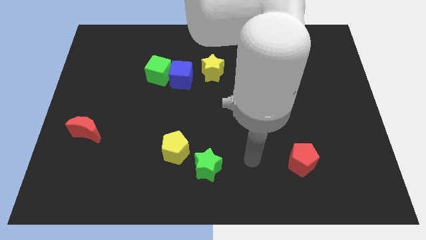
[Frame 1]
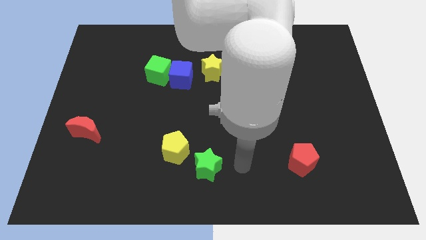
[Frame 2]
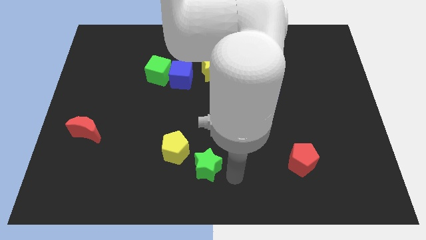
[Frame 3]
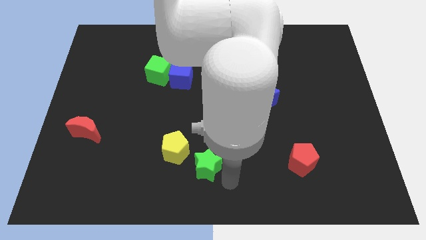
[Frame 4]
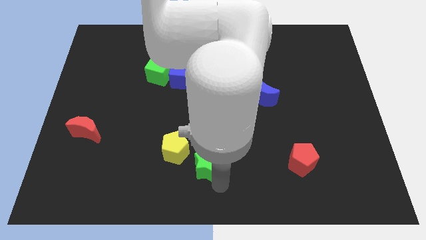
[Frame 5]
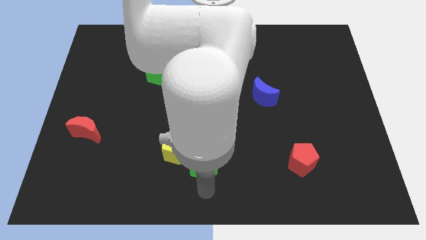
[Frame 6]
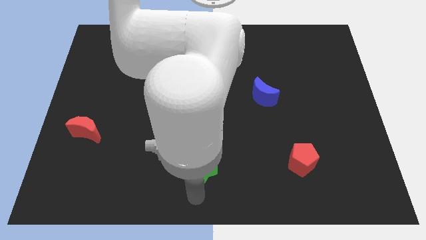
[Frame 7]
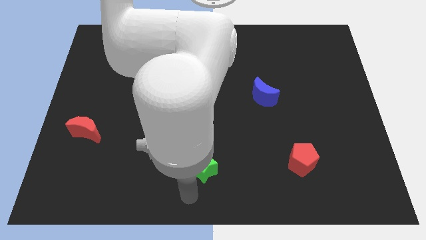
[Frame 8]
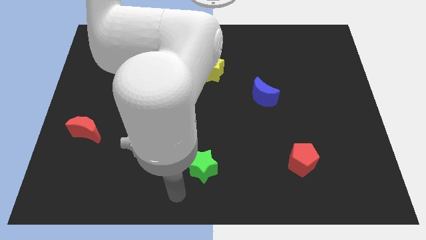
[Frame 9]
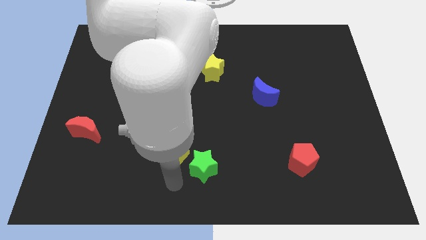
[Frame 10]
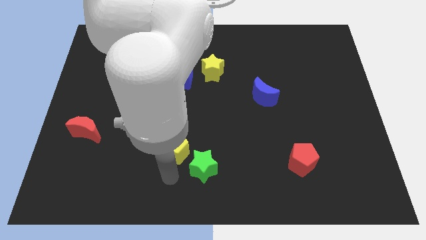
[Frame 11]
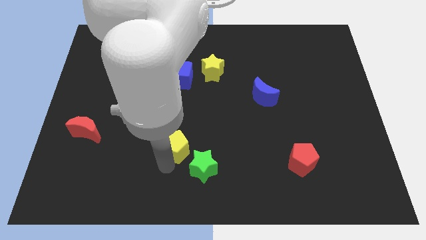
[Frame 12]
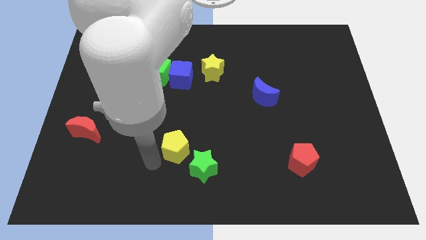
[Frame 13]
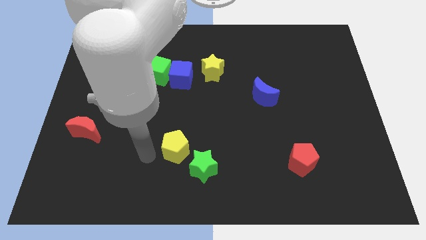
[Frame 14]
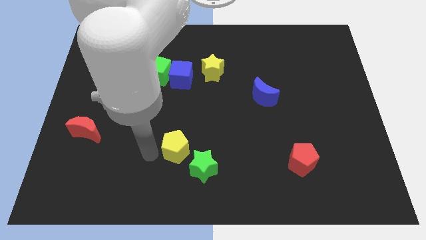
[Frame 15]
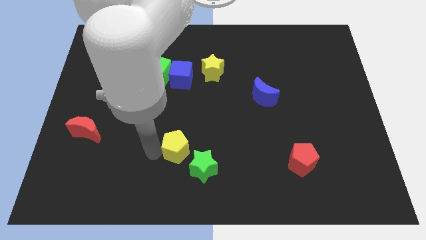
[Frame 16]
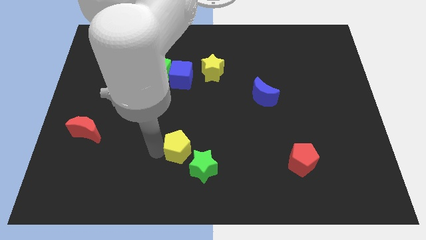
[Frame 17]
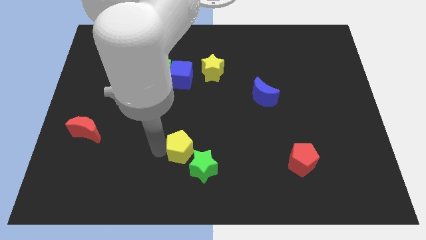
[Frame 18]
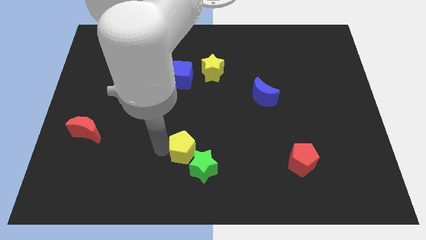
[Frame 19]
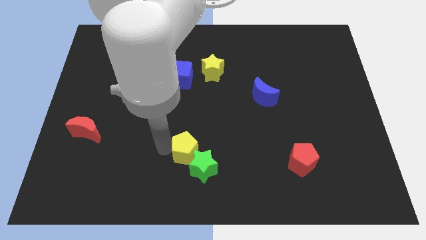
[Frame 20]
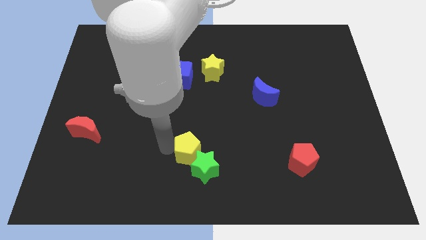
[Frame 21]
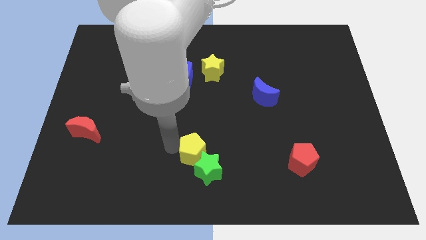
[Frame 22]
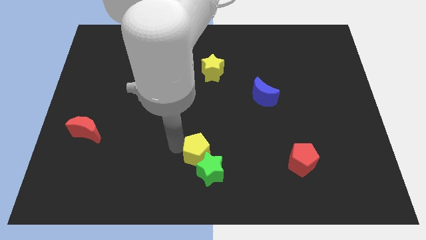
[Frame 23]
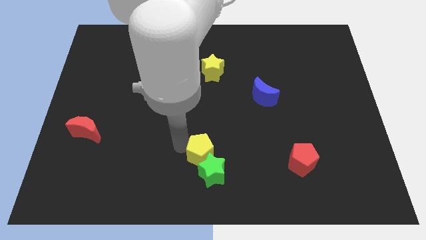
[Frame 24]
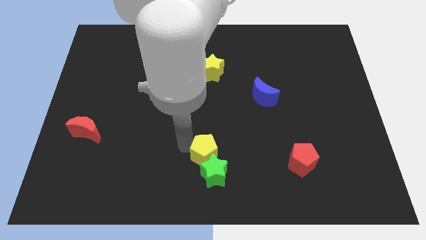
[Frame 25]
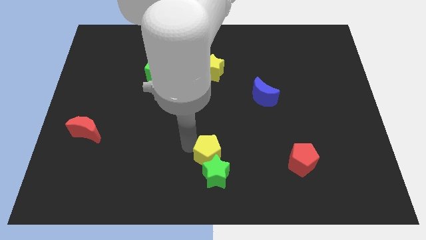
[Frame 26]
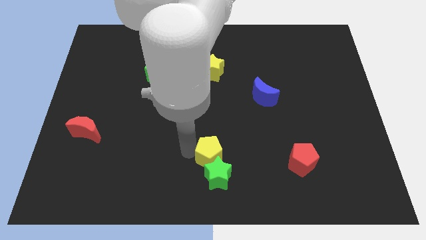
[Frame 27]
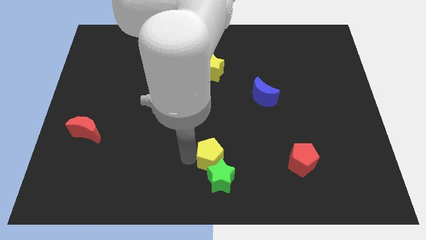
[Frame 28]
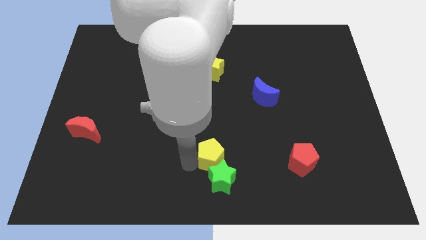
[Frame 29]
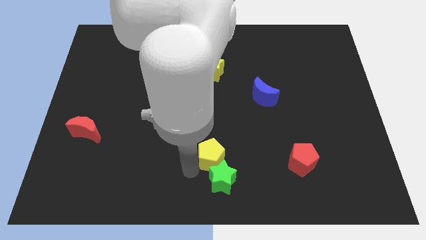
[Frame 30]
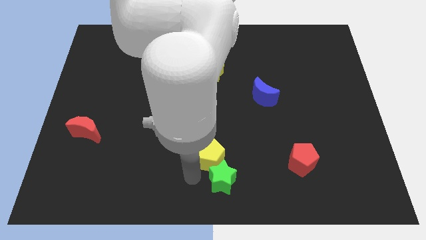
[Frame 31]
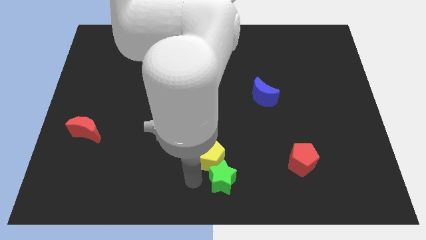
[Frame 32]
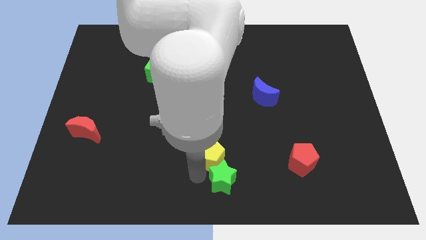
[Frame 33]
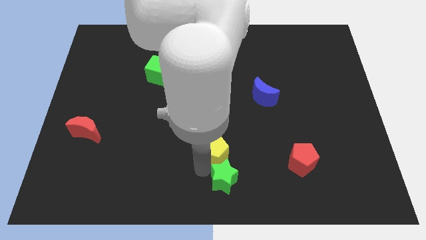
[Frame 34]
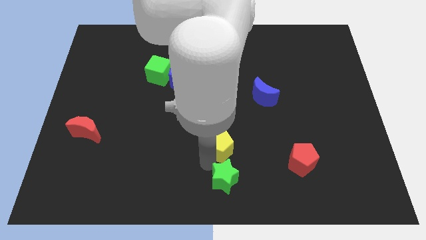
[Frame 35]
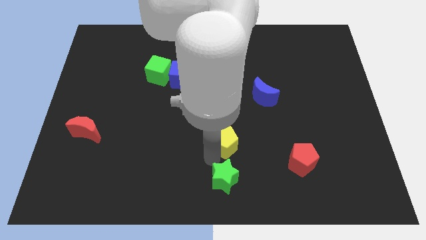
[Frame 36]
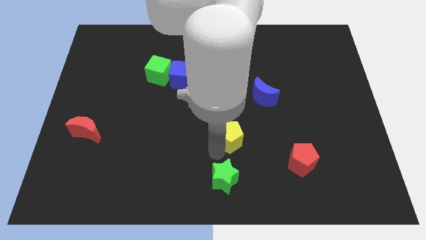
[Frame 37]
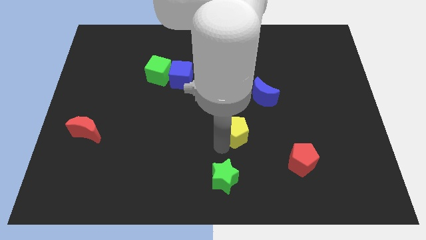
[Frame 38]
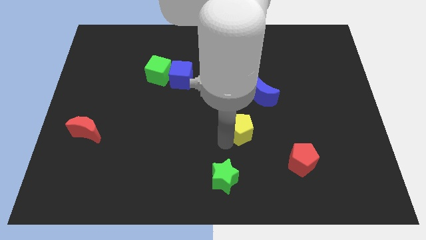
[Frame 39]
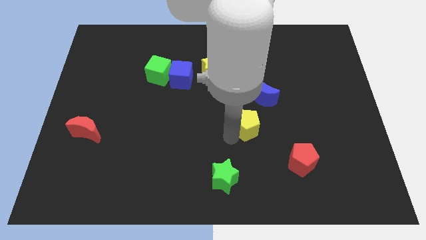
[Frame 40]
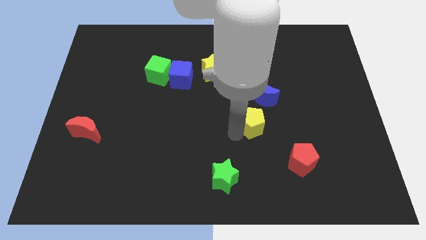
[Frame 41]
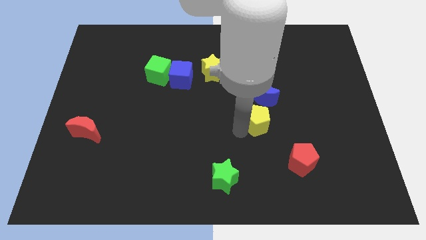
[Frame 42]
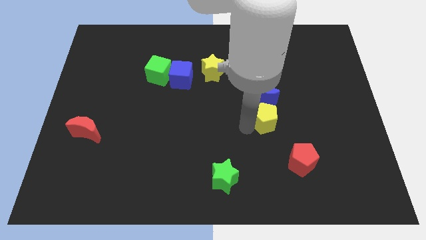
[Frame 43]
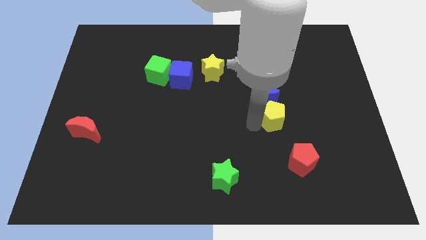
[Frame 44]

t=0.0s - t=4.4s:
push the yellow pentagon to the bottom right of the blue moon

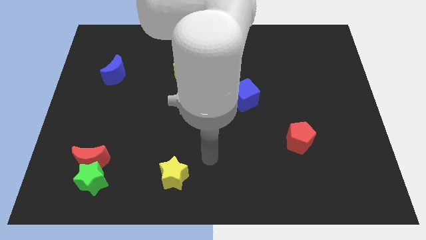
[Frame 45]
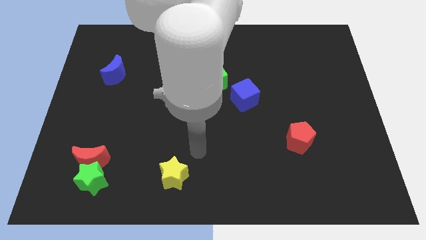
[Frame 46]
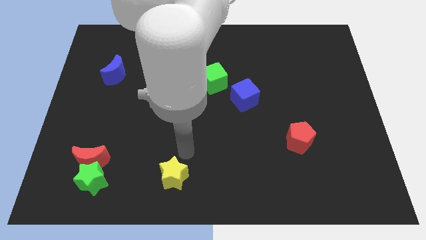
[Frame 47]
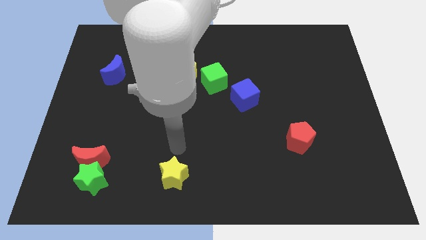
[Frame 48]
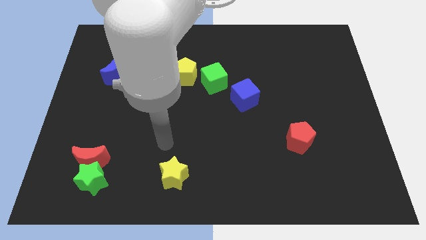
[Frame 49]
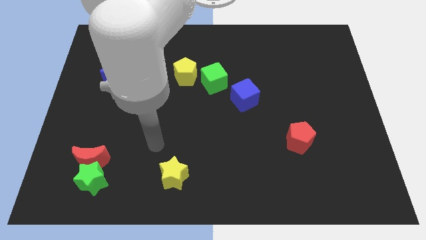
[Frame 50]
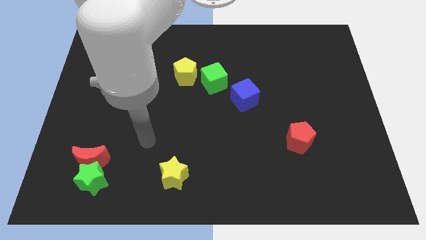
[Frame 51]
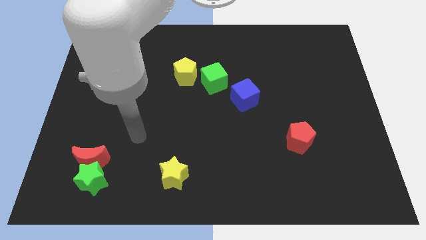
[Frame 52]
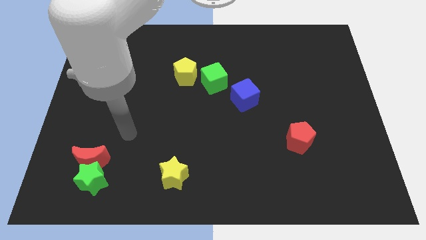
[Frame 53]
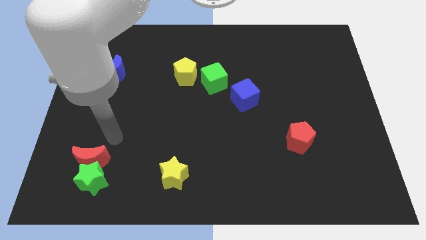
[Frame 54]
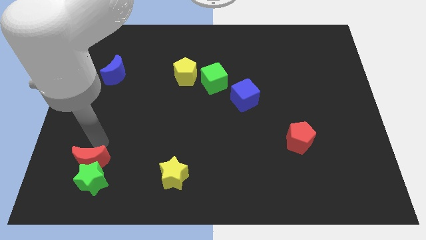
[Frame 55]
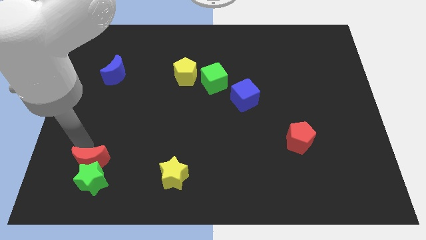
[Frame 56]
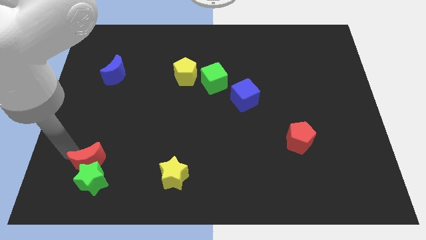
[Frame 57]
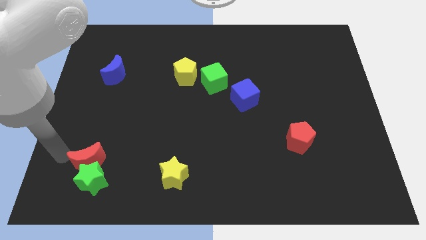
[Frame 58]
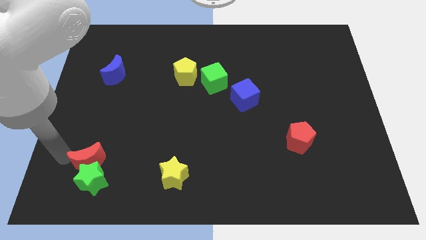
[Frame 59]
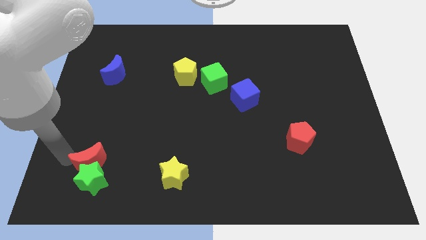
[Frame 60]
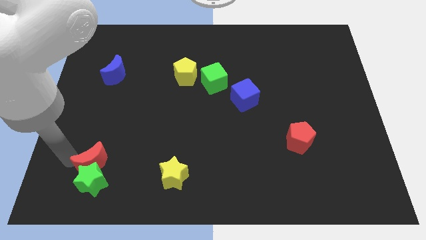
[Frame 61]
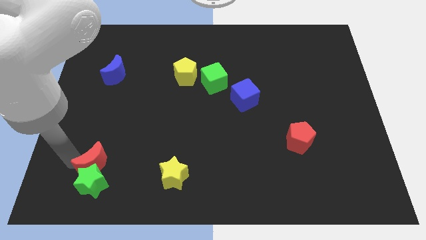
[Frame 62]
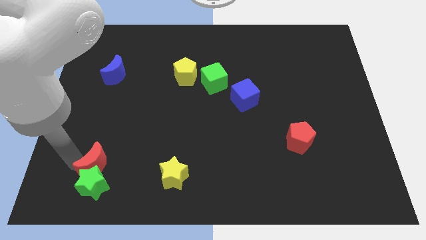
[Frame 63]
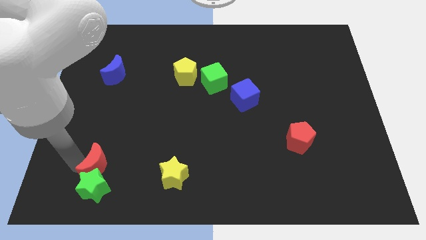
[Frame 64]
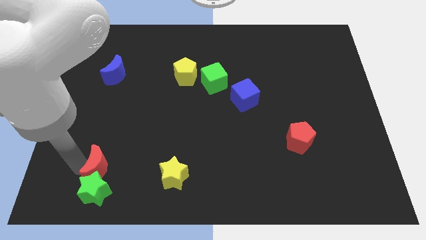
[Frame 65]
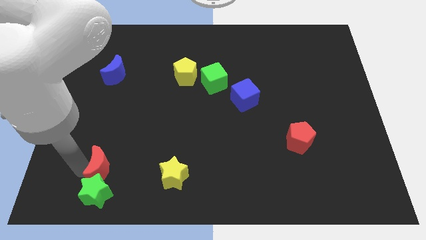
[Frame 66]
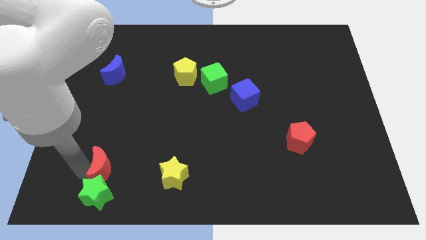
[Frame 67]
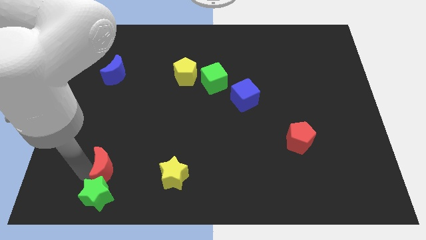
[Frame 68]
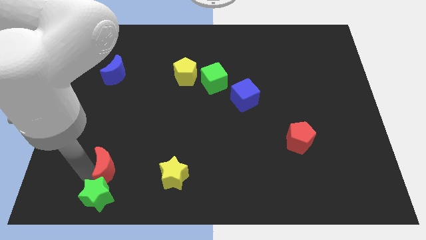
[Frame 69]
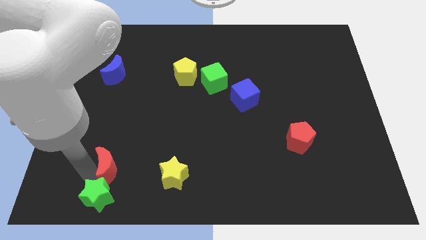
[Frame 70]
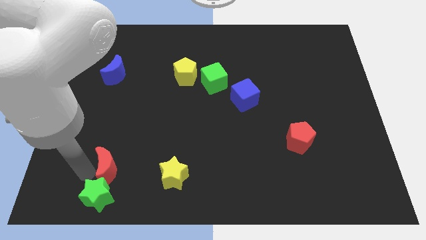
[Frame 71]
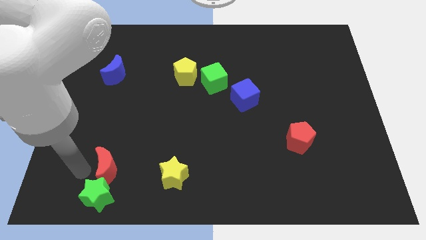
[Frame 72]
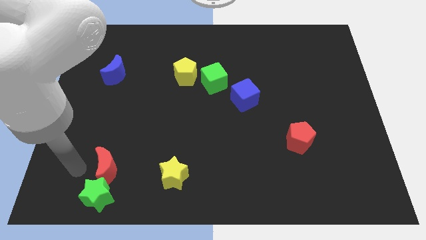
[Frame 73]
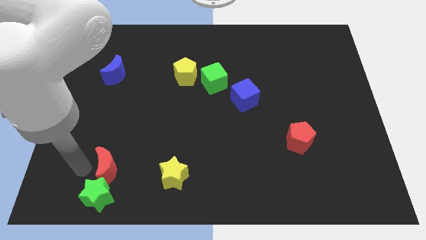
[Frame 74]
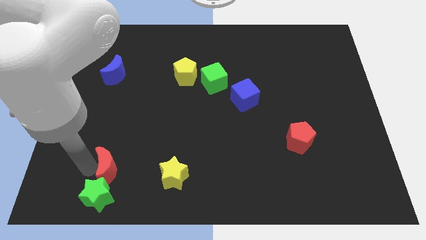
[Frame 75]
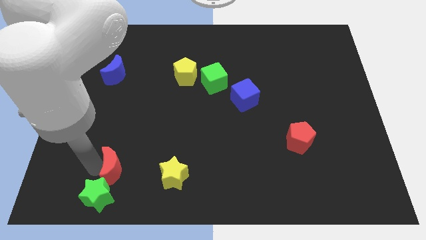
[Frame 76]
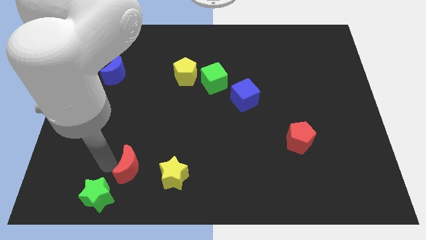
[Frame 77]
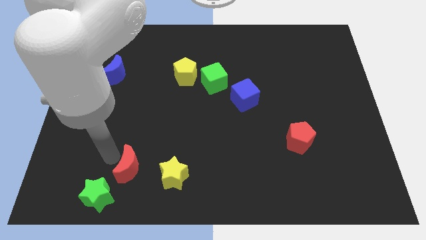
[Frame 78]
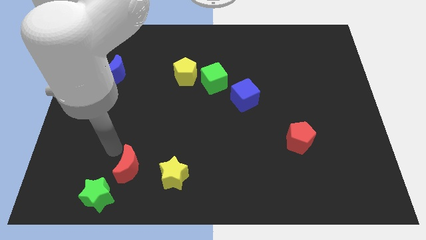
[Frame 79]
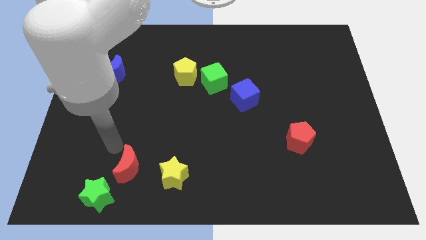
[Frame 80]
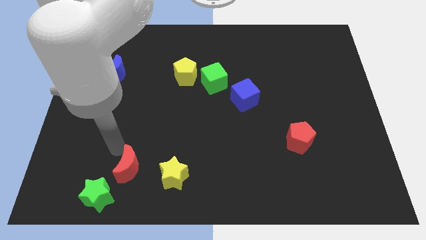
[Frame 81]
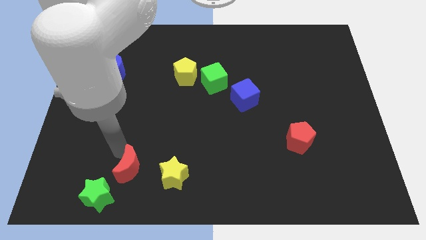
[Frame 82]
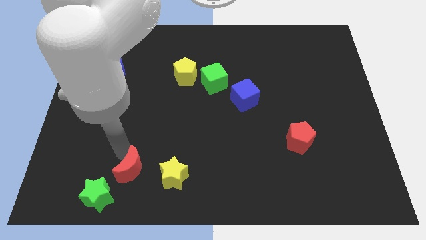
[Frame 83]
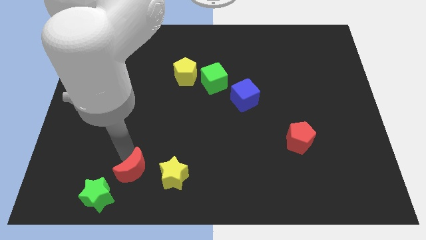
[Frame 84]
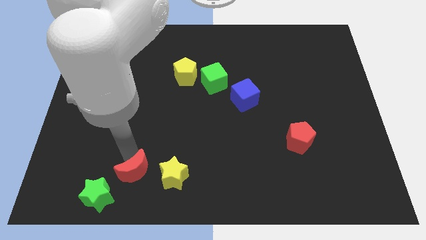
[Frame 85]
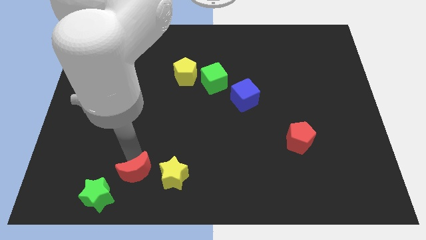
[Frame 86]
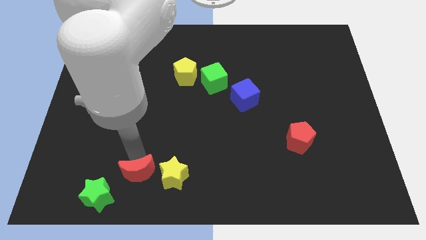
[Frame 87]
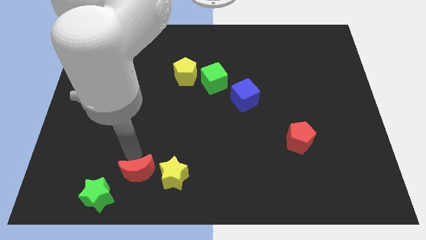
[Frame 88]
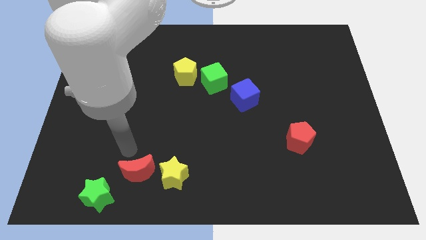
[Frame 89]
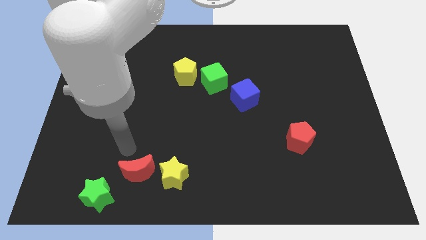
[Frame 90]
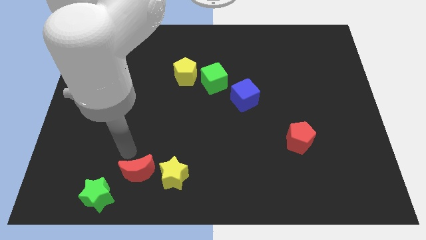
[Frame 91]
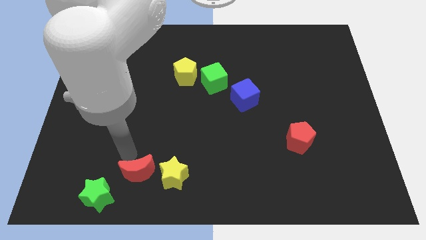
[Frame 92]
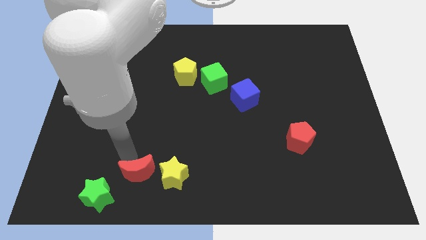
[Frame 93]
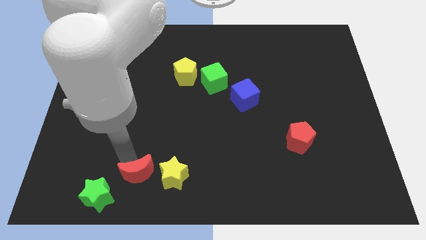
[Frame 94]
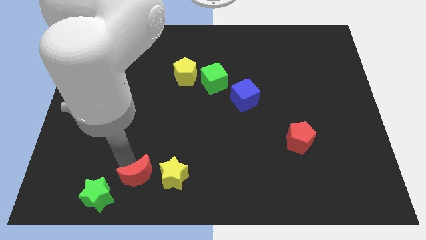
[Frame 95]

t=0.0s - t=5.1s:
move the red moon to the right side of the green star
